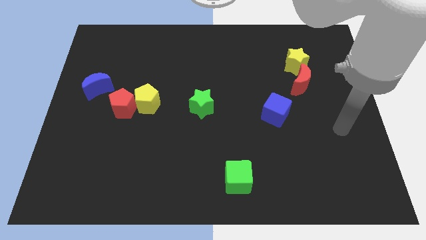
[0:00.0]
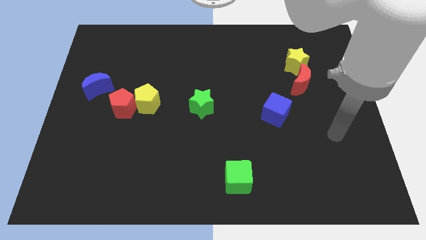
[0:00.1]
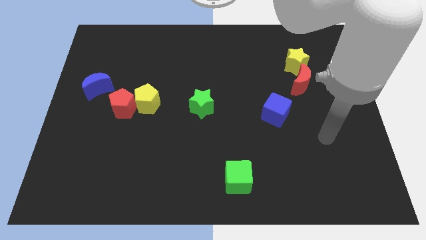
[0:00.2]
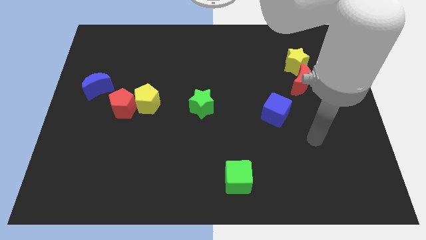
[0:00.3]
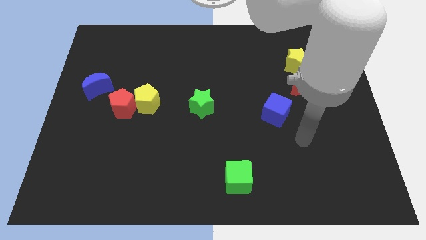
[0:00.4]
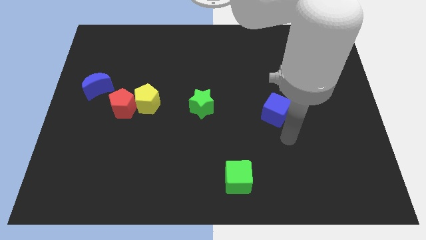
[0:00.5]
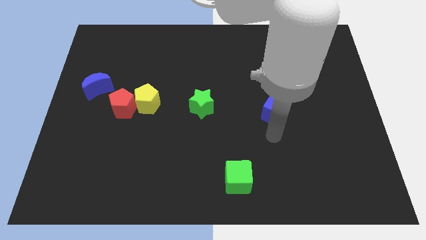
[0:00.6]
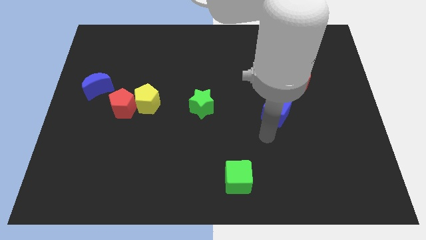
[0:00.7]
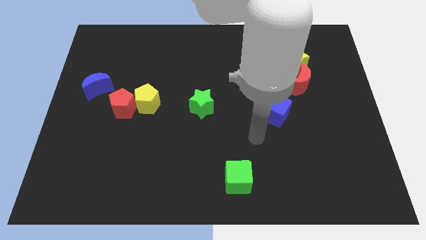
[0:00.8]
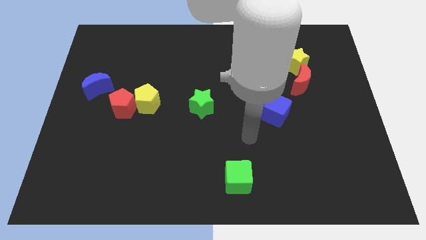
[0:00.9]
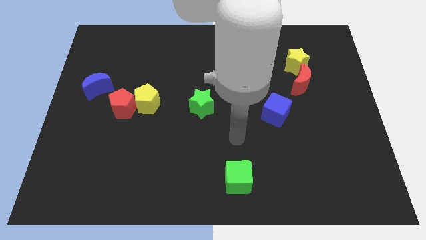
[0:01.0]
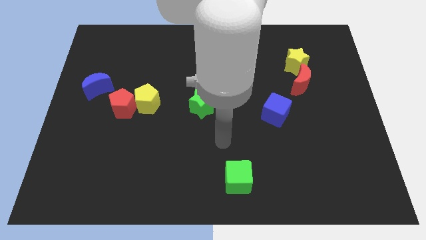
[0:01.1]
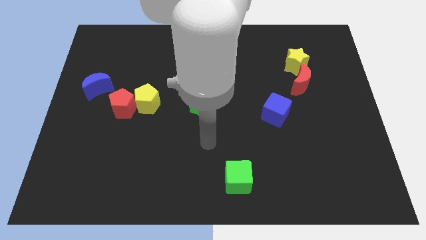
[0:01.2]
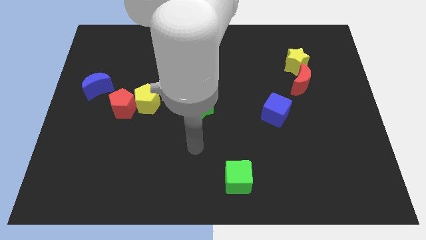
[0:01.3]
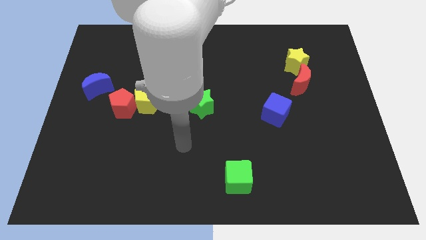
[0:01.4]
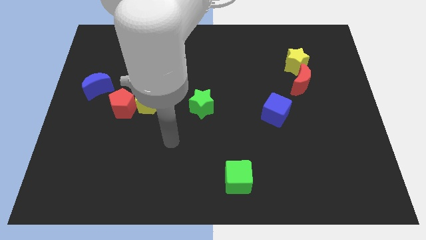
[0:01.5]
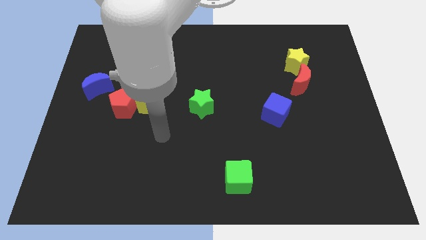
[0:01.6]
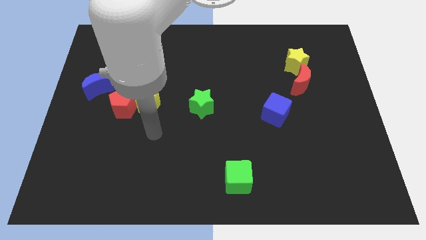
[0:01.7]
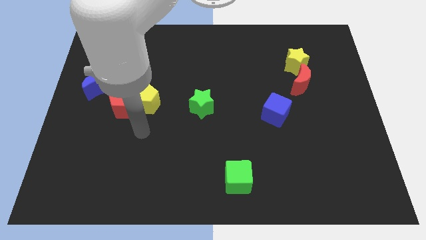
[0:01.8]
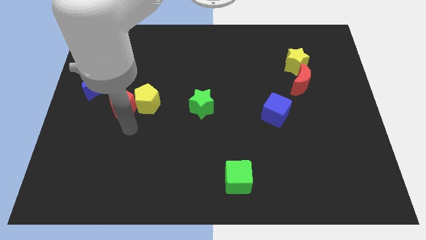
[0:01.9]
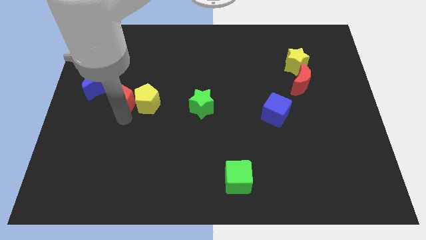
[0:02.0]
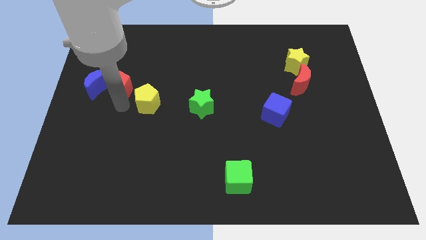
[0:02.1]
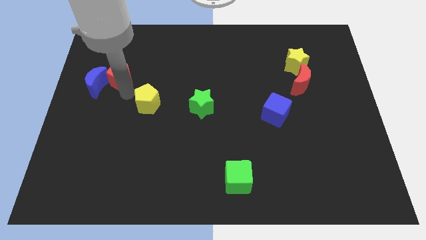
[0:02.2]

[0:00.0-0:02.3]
separate the yellow pentagon from the red pentagon

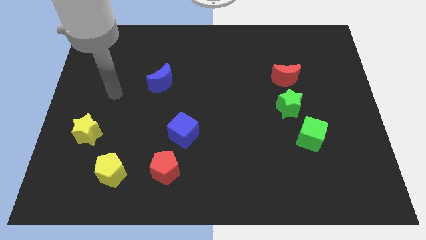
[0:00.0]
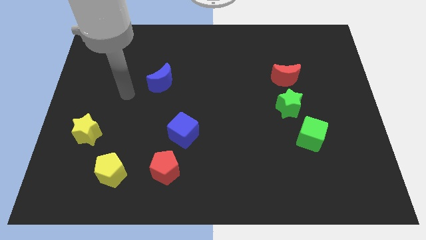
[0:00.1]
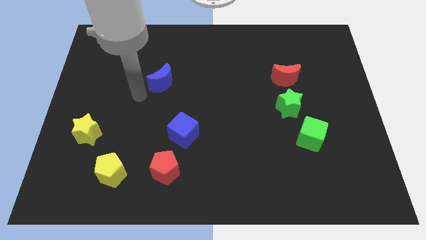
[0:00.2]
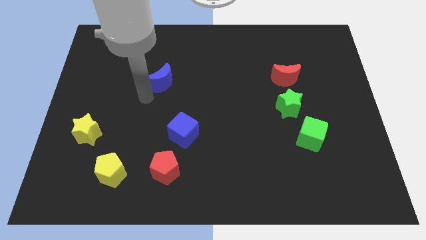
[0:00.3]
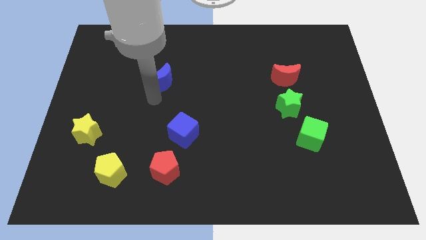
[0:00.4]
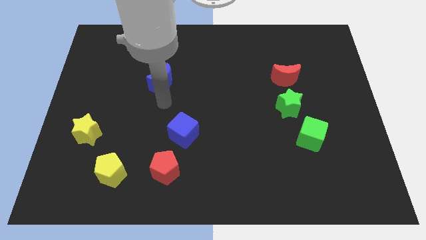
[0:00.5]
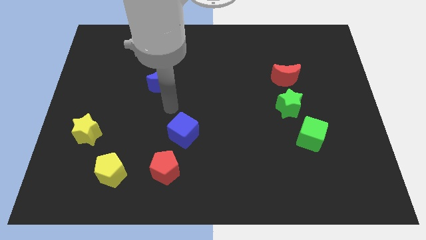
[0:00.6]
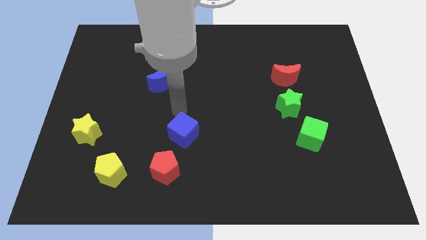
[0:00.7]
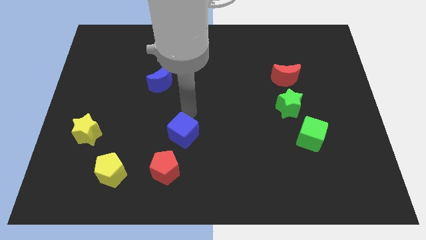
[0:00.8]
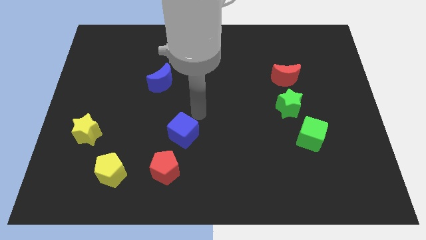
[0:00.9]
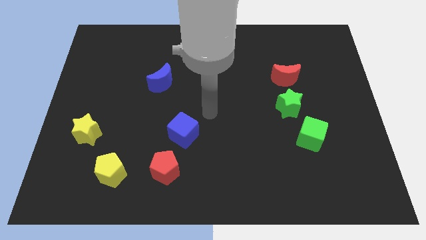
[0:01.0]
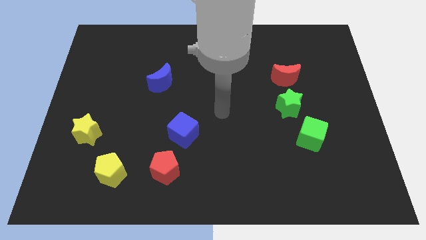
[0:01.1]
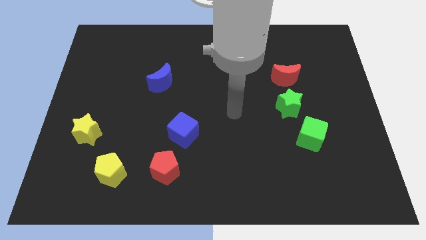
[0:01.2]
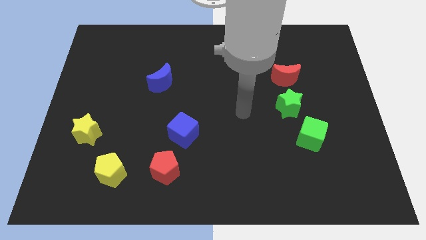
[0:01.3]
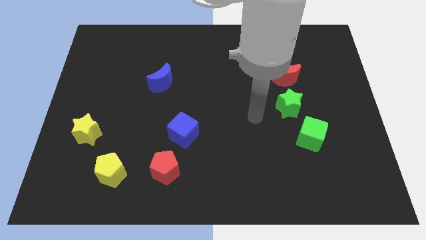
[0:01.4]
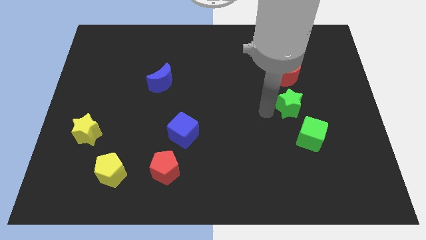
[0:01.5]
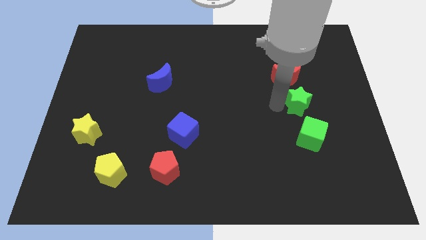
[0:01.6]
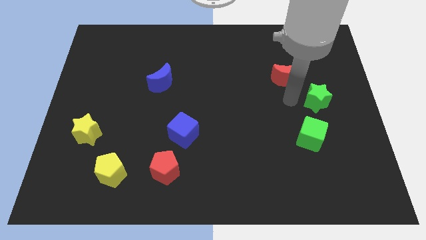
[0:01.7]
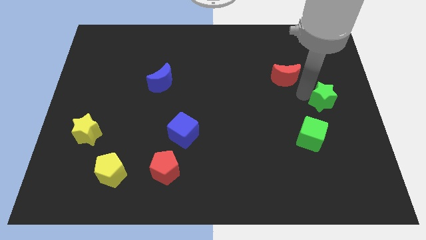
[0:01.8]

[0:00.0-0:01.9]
move the red moon away from the green star

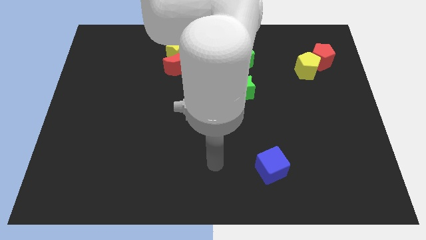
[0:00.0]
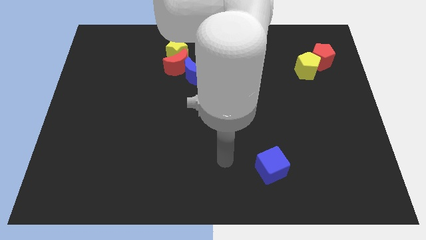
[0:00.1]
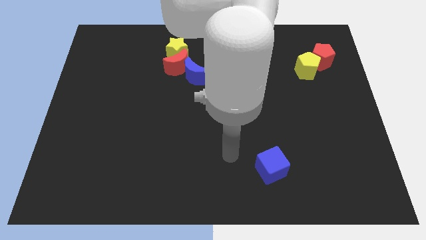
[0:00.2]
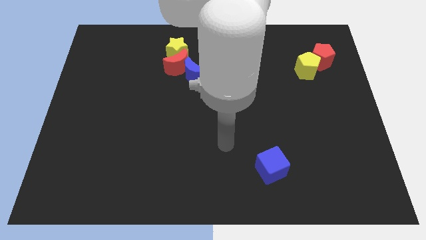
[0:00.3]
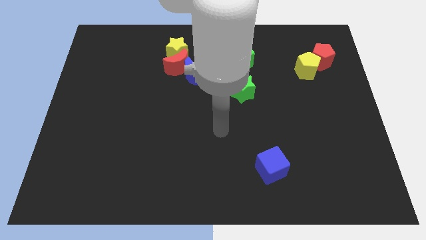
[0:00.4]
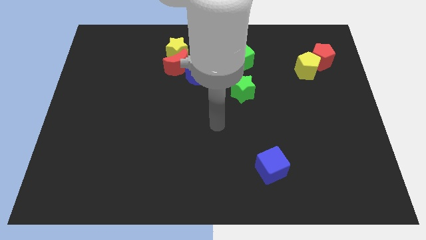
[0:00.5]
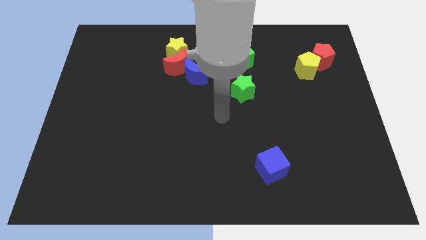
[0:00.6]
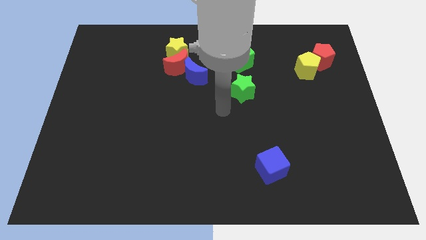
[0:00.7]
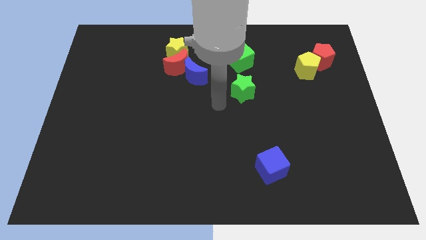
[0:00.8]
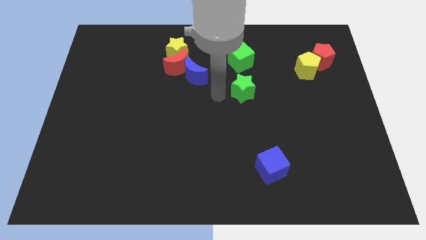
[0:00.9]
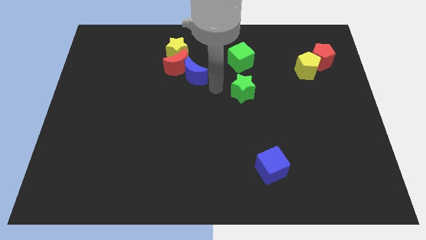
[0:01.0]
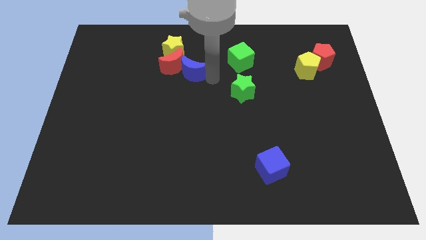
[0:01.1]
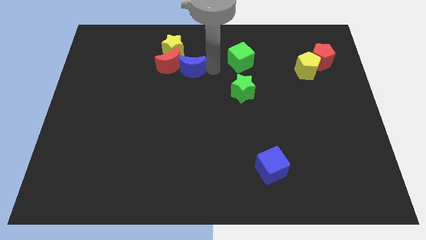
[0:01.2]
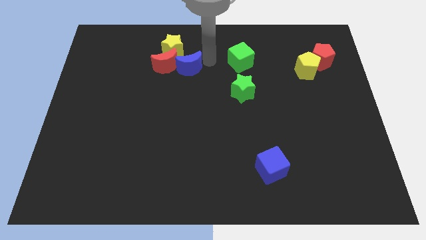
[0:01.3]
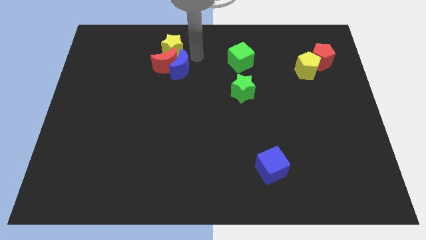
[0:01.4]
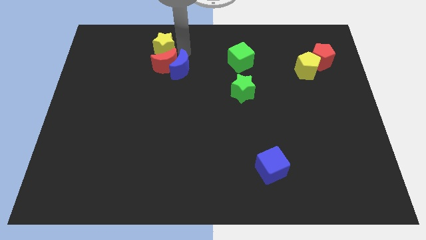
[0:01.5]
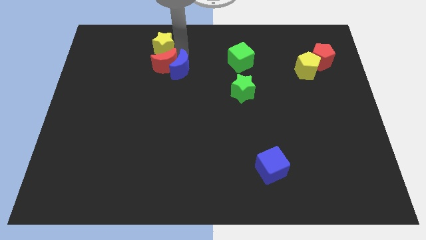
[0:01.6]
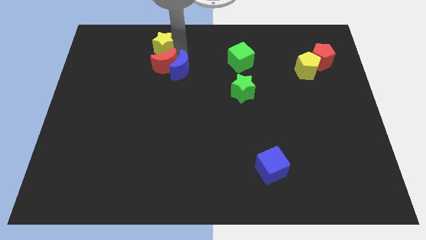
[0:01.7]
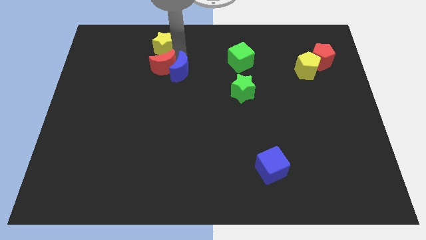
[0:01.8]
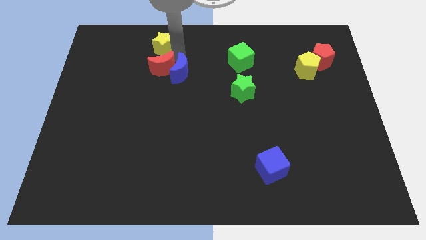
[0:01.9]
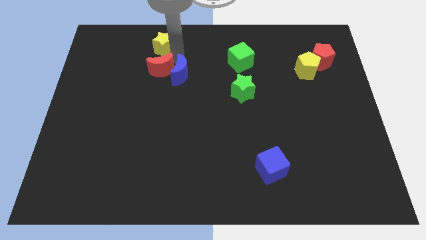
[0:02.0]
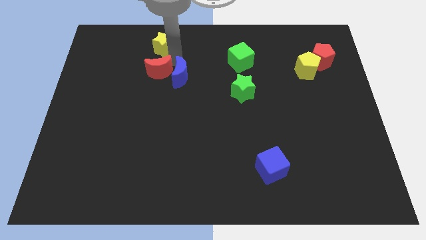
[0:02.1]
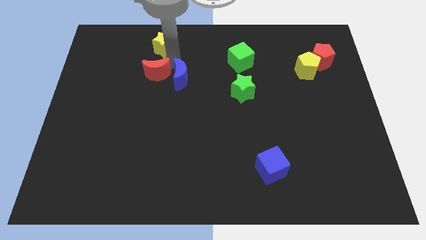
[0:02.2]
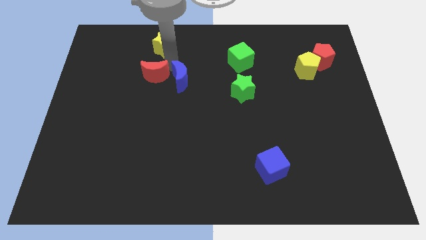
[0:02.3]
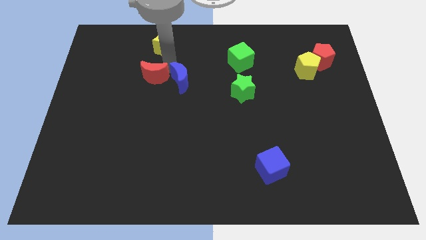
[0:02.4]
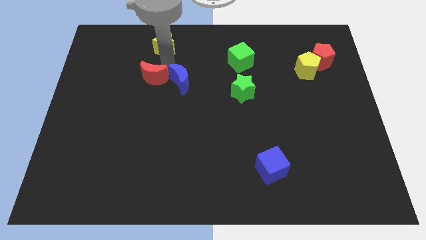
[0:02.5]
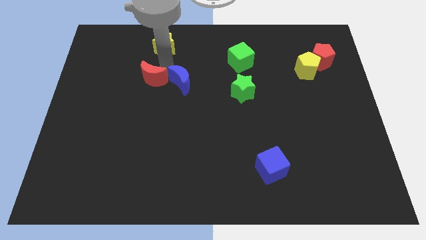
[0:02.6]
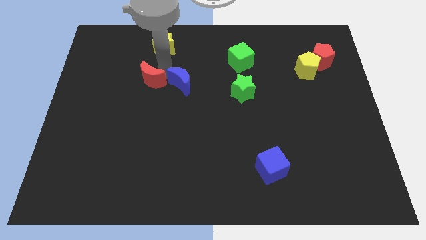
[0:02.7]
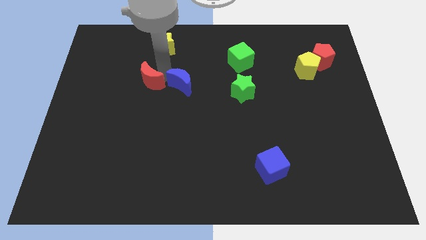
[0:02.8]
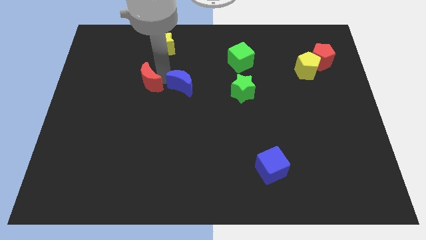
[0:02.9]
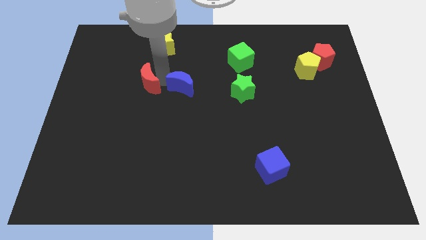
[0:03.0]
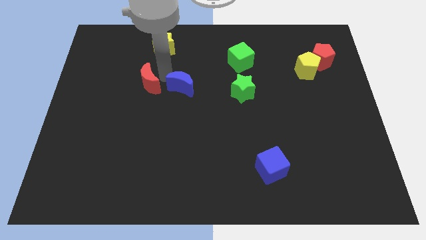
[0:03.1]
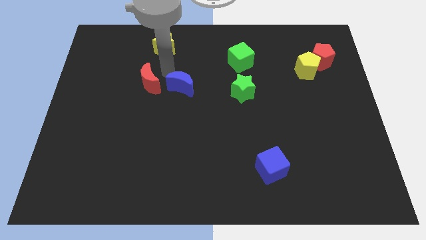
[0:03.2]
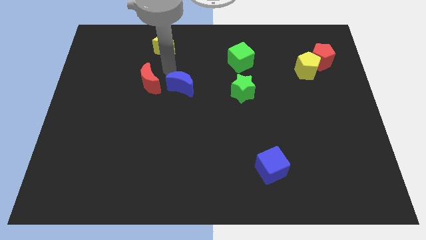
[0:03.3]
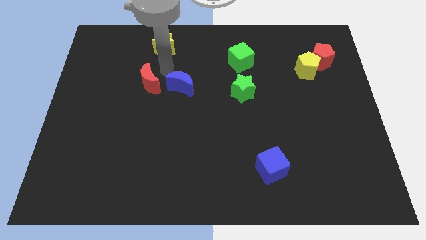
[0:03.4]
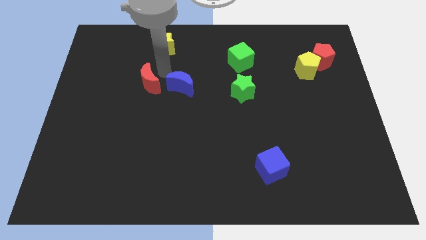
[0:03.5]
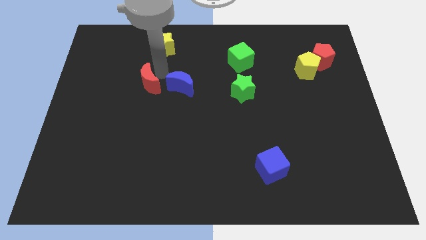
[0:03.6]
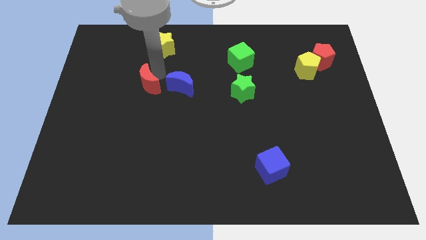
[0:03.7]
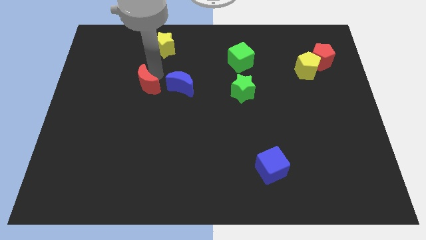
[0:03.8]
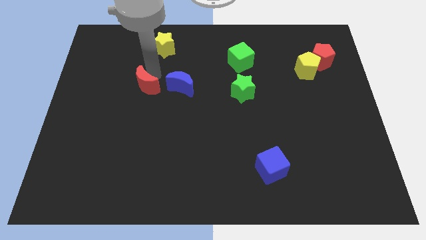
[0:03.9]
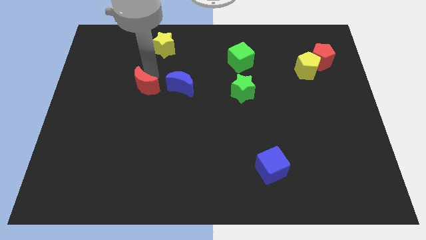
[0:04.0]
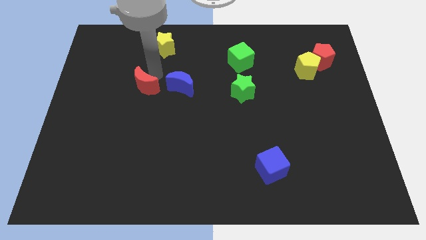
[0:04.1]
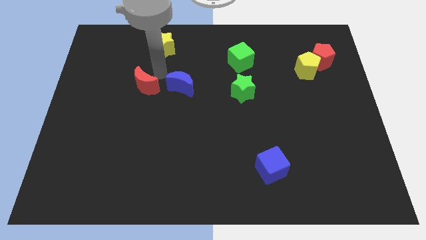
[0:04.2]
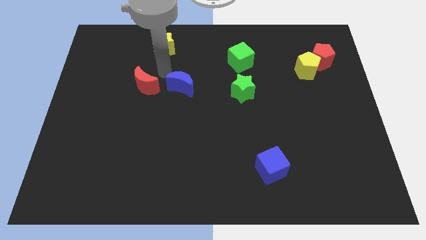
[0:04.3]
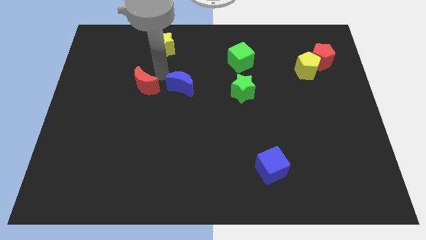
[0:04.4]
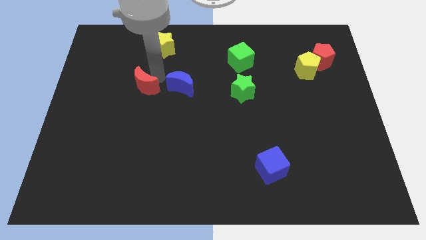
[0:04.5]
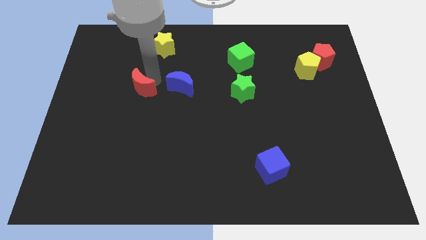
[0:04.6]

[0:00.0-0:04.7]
move the red moon away from the yellow star and blue moon

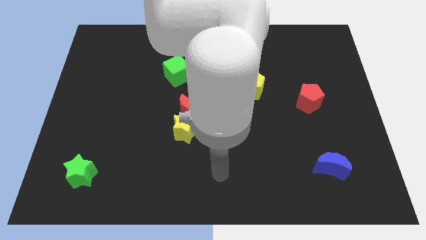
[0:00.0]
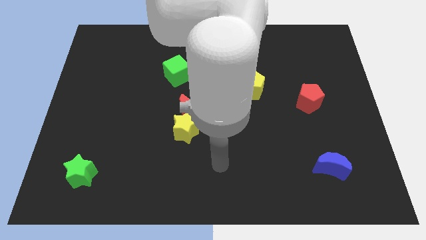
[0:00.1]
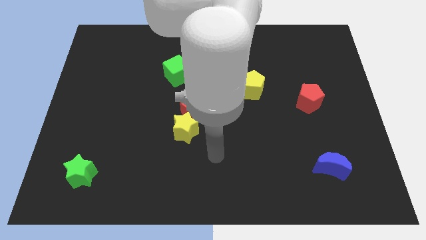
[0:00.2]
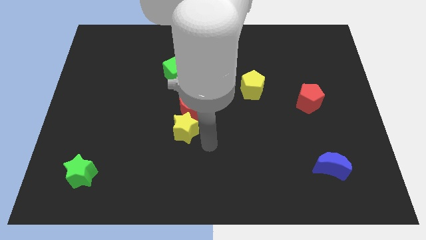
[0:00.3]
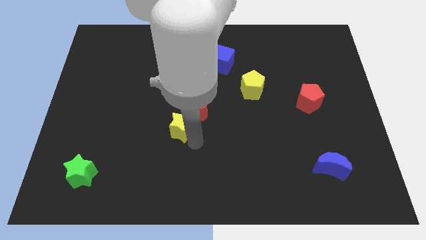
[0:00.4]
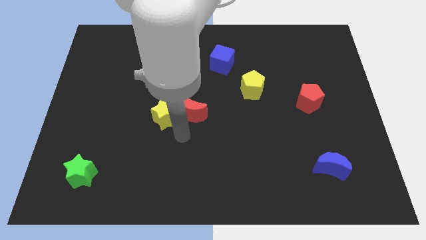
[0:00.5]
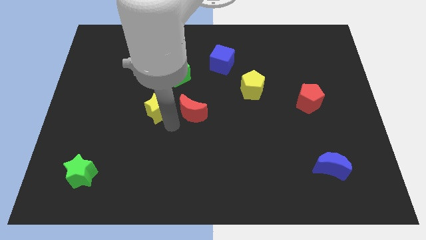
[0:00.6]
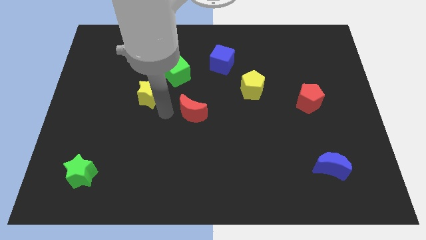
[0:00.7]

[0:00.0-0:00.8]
move the red moon away from the yellow star
